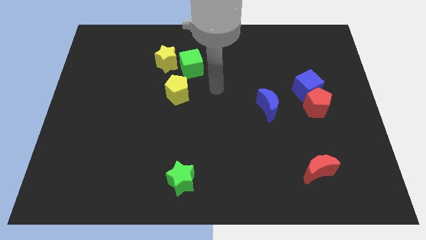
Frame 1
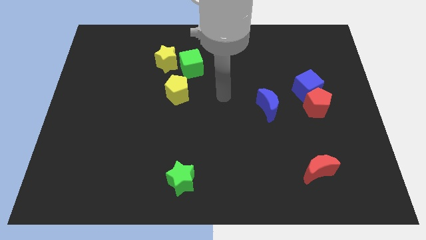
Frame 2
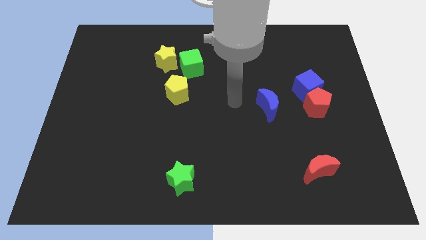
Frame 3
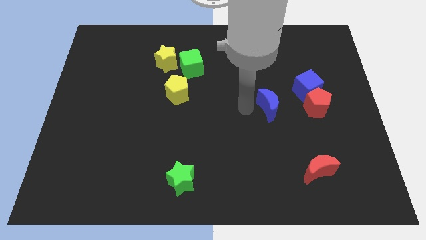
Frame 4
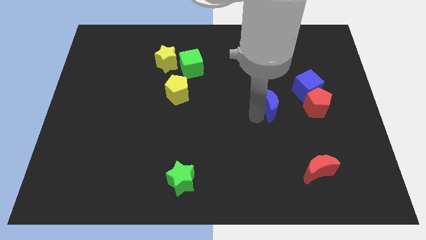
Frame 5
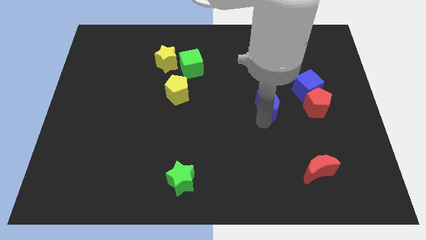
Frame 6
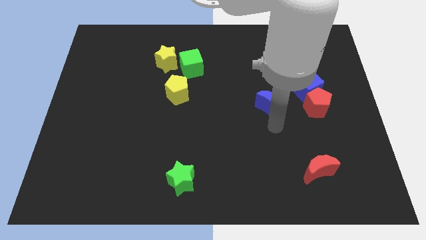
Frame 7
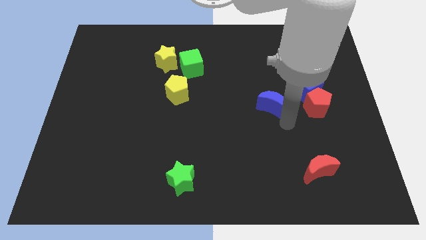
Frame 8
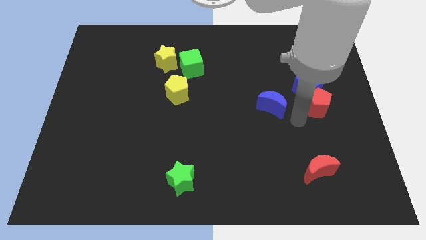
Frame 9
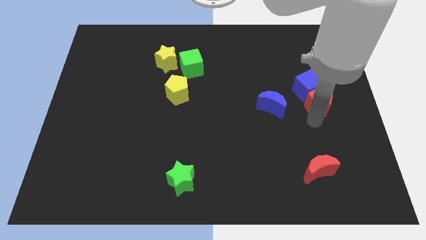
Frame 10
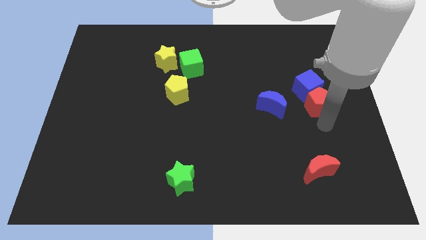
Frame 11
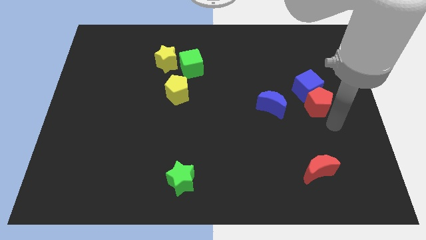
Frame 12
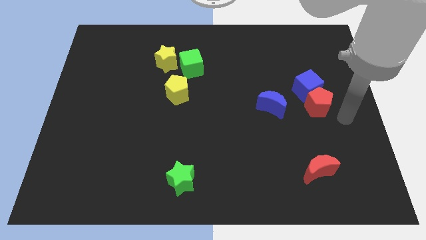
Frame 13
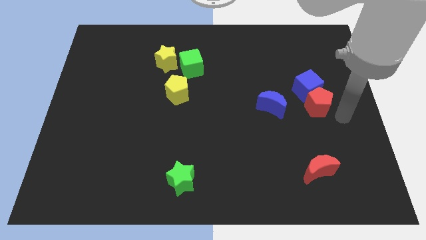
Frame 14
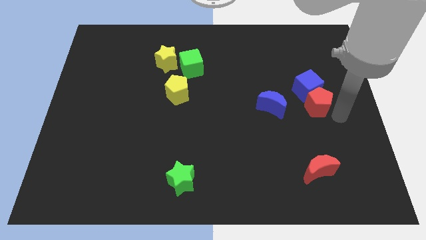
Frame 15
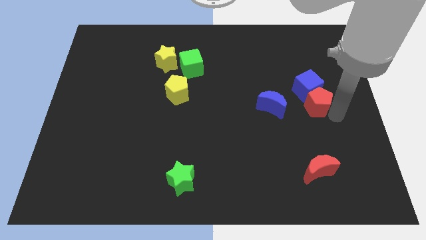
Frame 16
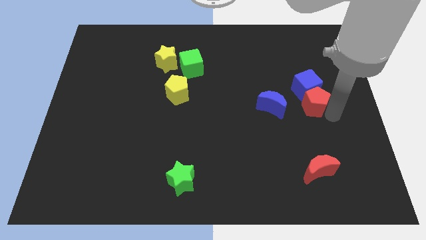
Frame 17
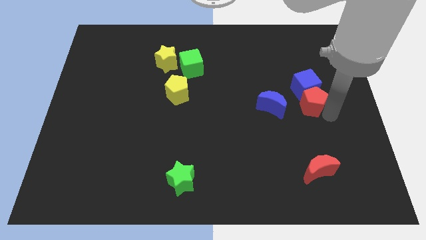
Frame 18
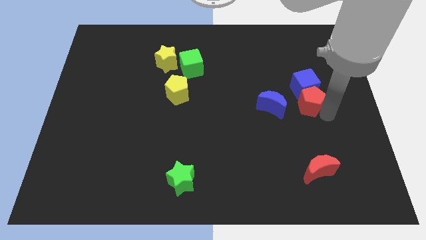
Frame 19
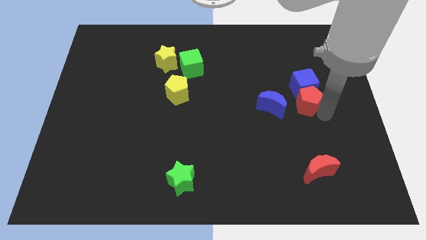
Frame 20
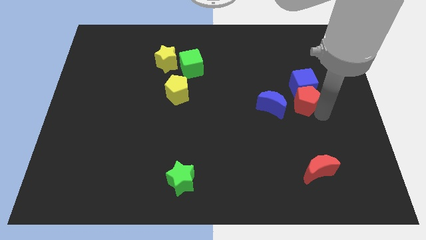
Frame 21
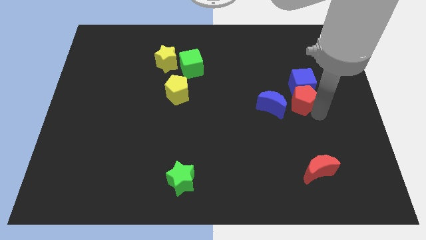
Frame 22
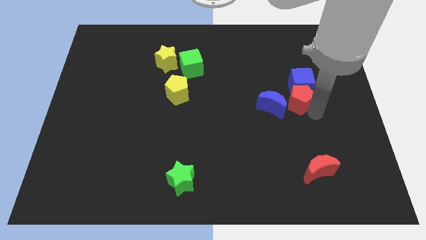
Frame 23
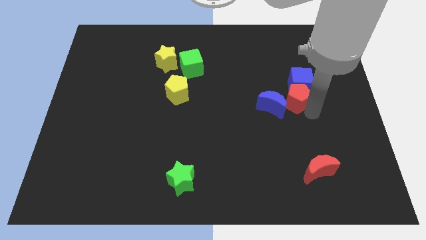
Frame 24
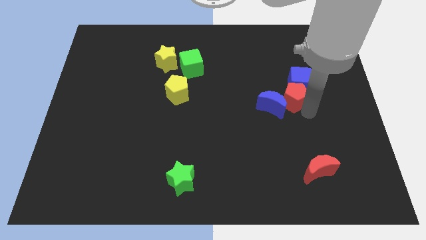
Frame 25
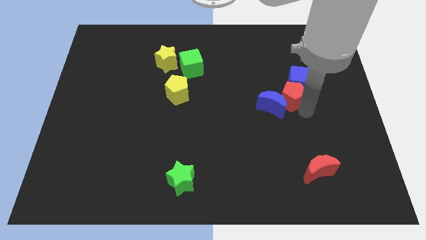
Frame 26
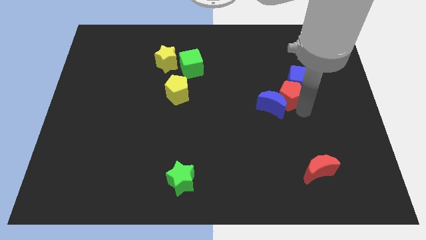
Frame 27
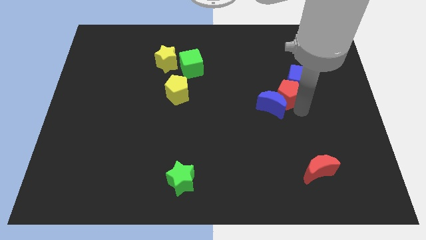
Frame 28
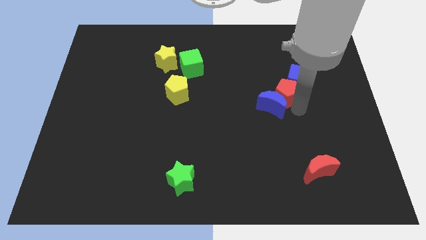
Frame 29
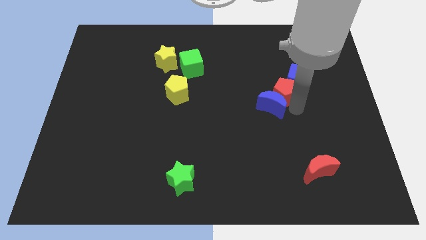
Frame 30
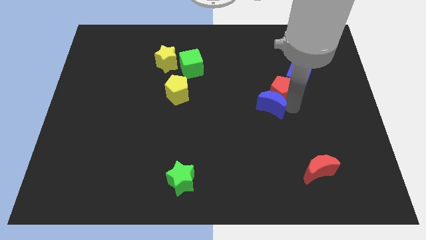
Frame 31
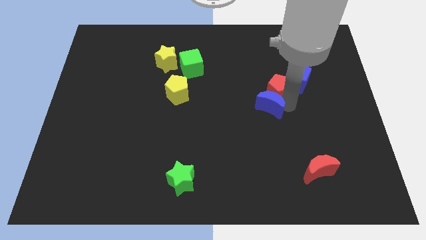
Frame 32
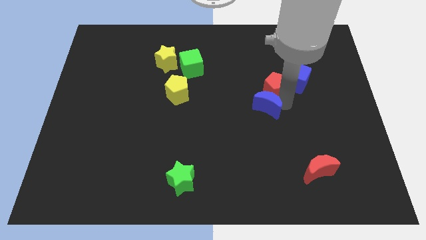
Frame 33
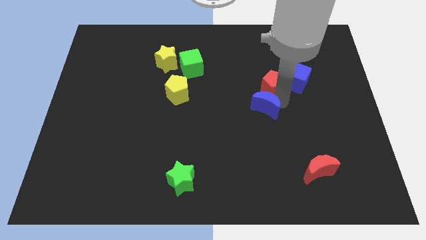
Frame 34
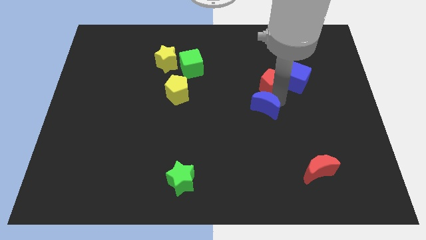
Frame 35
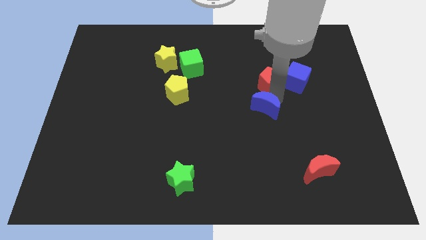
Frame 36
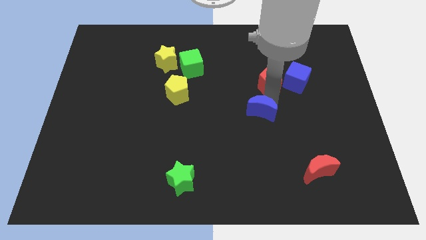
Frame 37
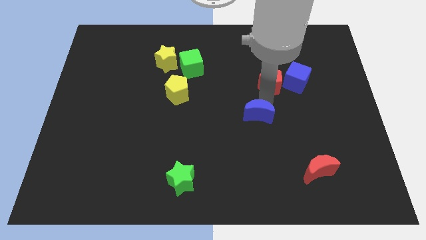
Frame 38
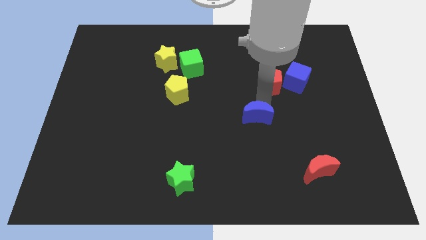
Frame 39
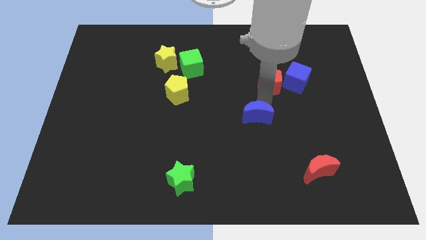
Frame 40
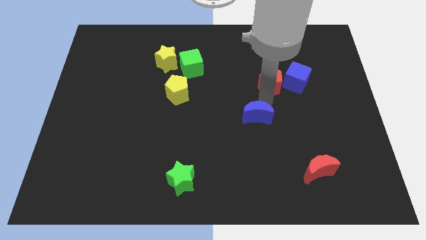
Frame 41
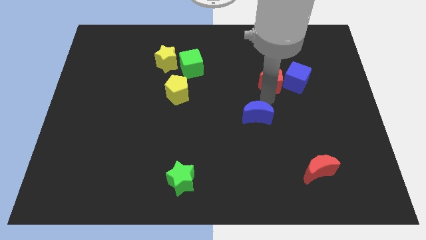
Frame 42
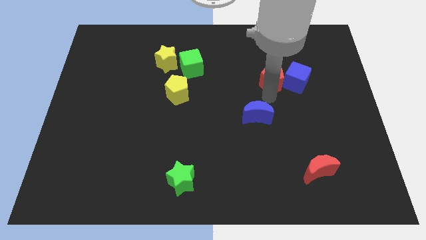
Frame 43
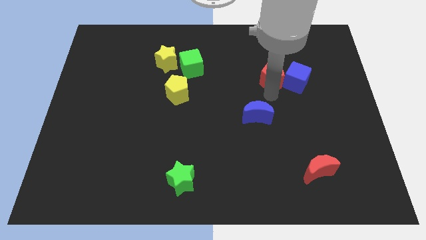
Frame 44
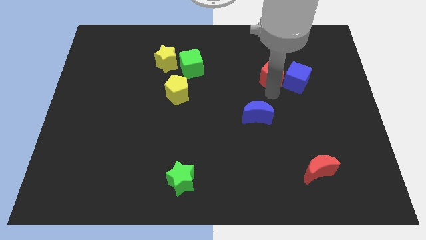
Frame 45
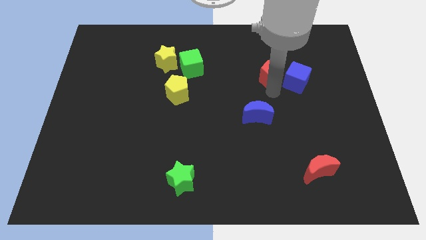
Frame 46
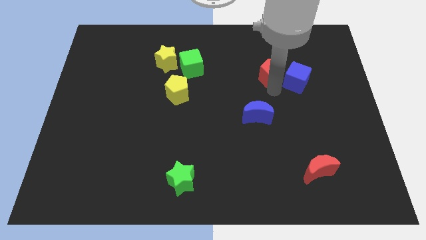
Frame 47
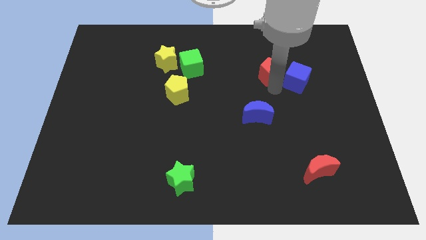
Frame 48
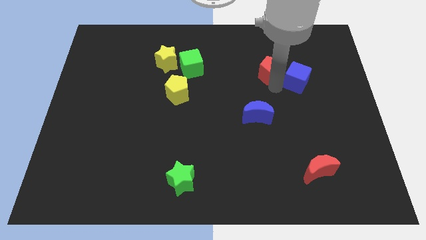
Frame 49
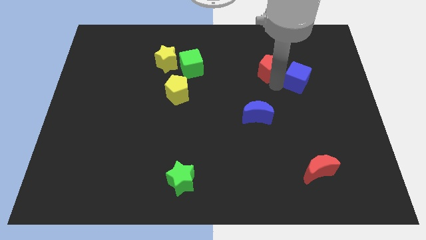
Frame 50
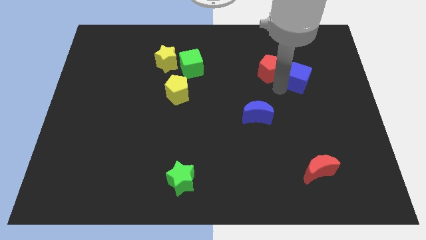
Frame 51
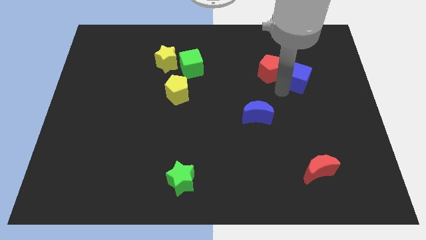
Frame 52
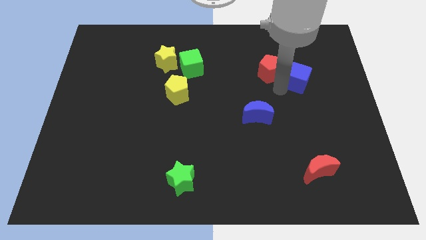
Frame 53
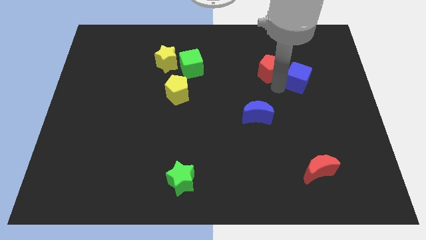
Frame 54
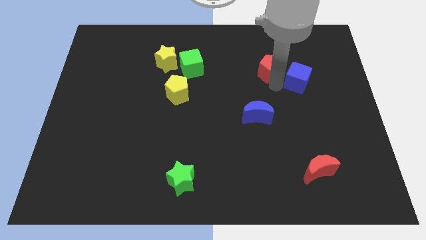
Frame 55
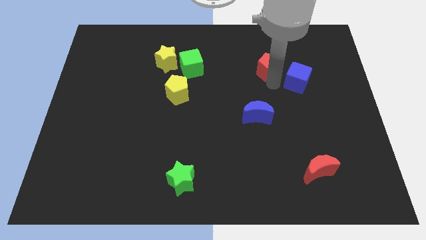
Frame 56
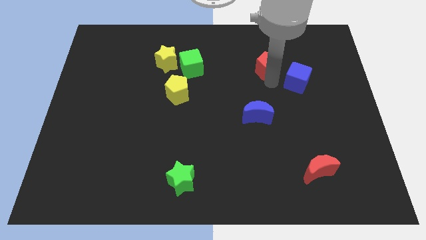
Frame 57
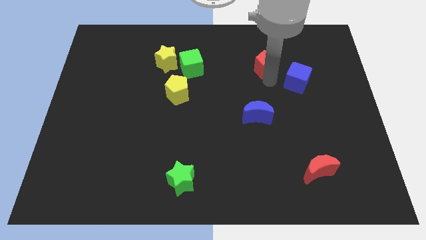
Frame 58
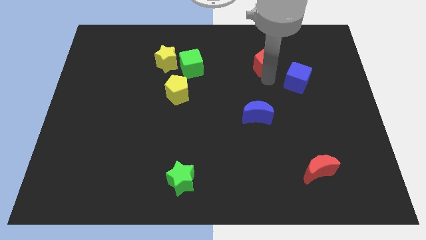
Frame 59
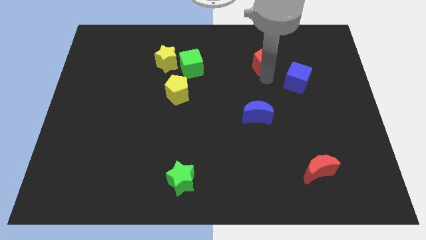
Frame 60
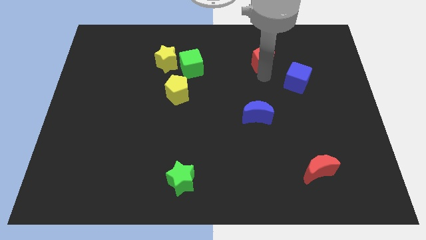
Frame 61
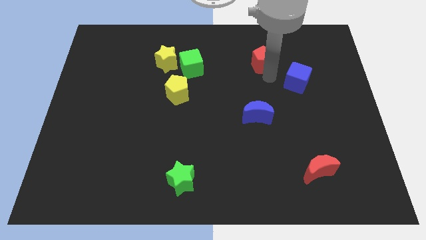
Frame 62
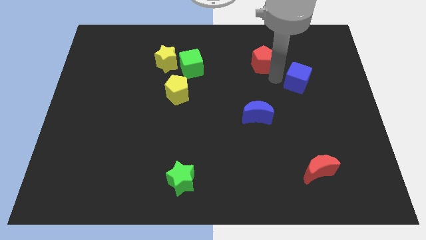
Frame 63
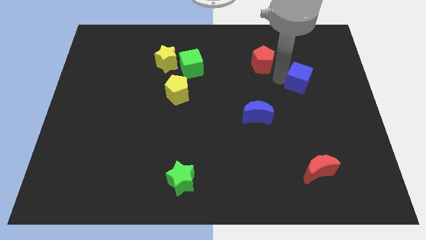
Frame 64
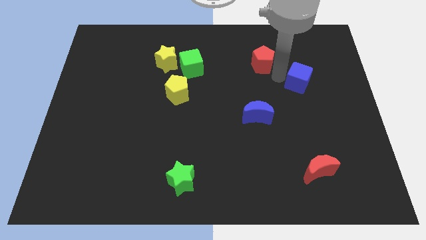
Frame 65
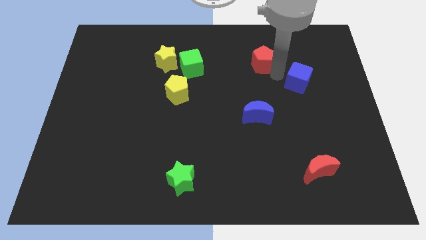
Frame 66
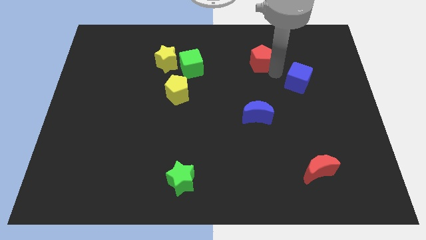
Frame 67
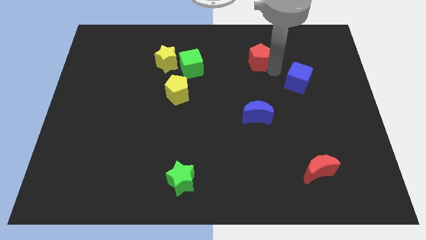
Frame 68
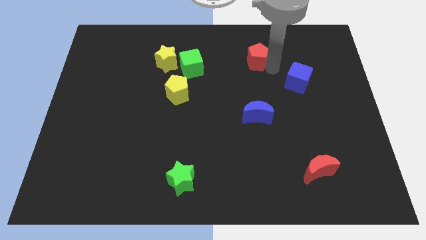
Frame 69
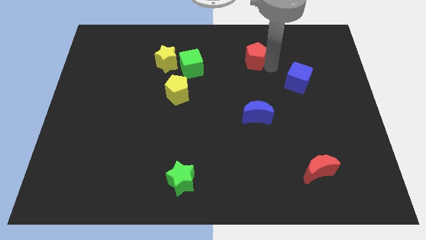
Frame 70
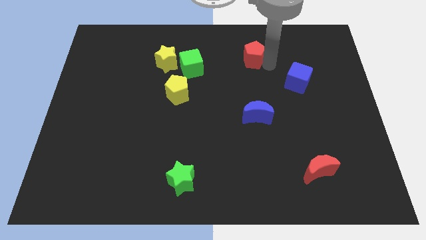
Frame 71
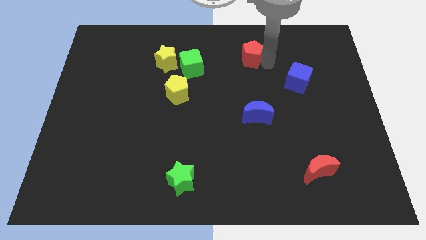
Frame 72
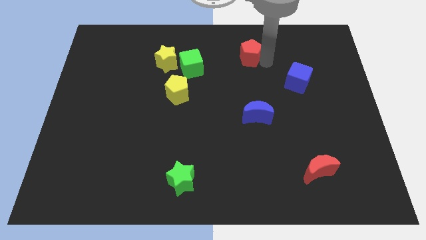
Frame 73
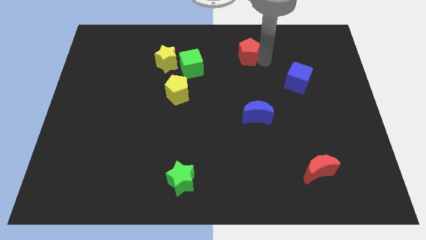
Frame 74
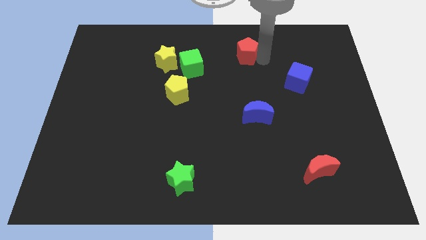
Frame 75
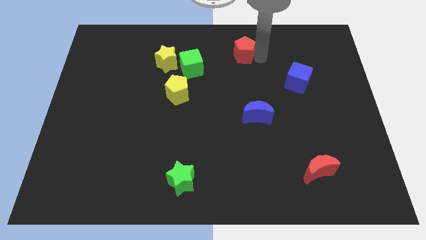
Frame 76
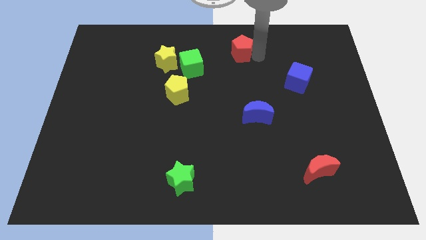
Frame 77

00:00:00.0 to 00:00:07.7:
put the red pentagon to the top side
